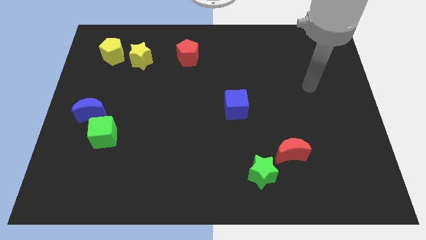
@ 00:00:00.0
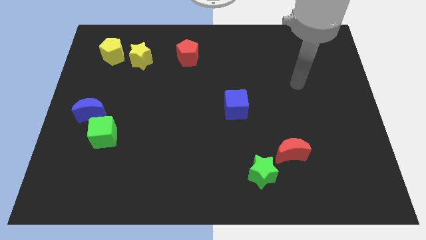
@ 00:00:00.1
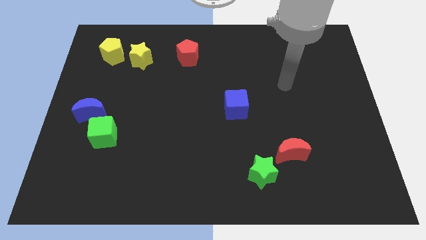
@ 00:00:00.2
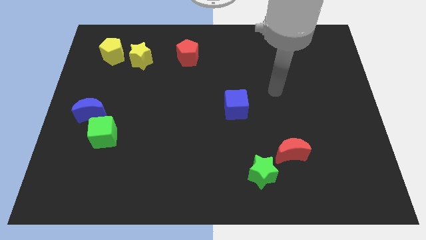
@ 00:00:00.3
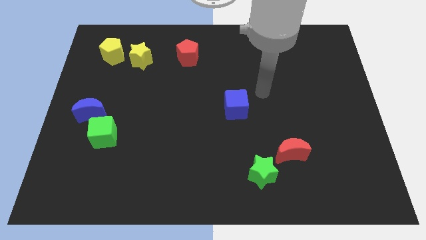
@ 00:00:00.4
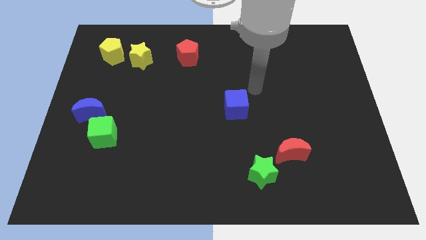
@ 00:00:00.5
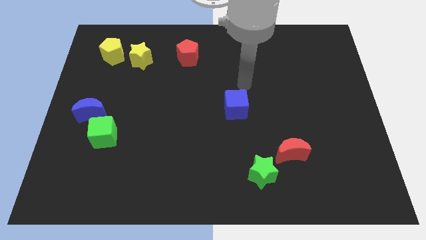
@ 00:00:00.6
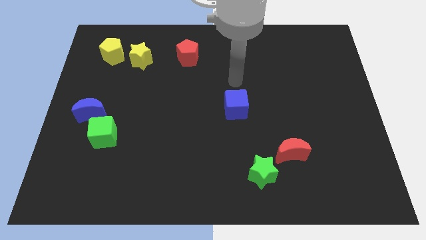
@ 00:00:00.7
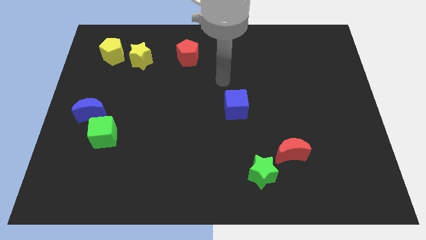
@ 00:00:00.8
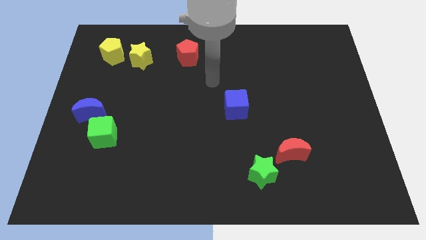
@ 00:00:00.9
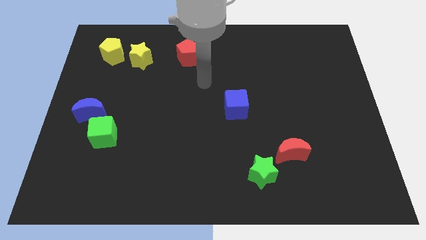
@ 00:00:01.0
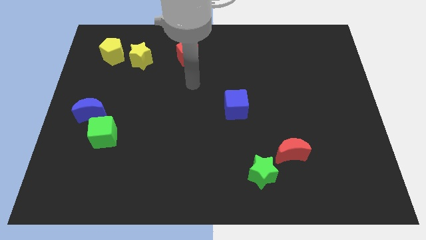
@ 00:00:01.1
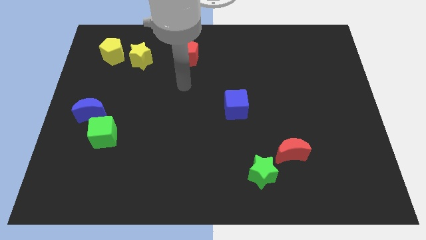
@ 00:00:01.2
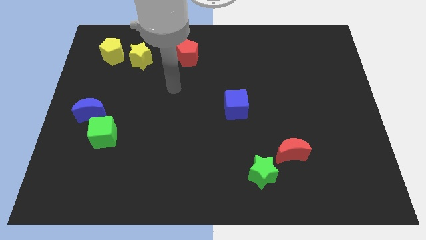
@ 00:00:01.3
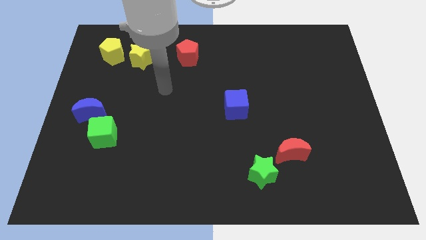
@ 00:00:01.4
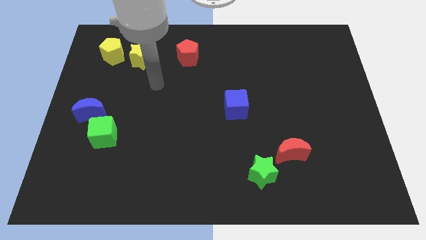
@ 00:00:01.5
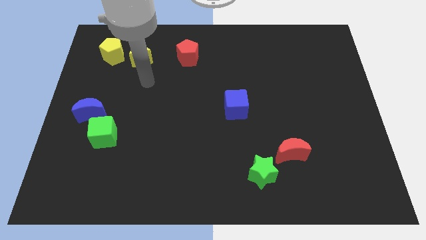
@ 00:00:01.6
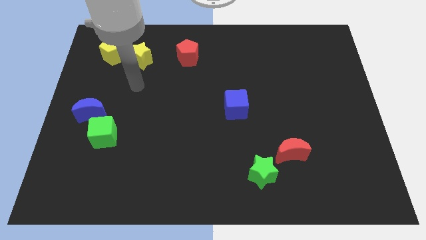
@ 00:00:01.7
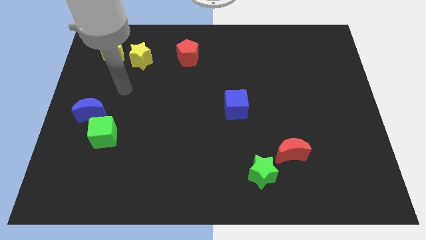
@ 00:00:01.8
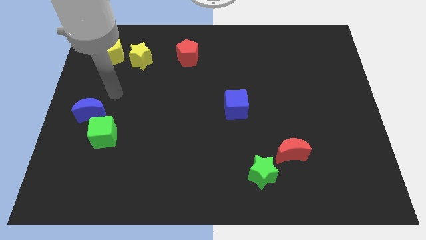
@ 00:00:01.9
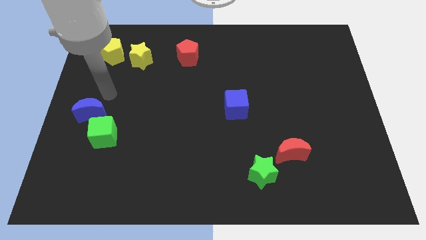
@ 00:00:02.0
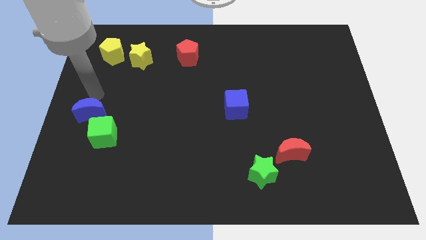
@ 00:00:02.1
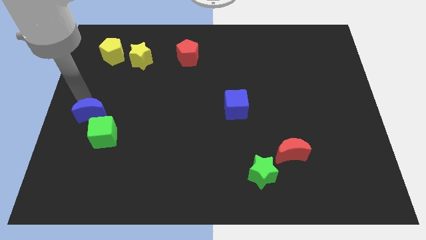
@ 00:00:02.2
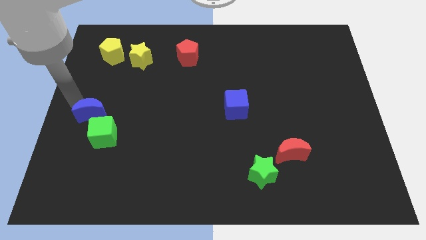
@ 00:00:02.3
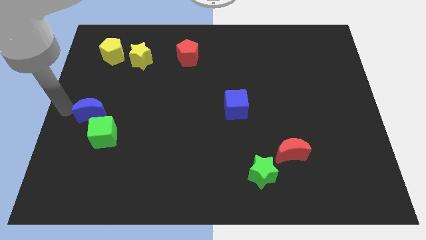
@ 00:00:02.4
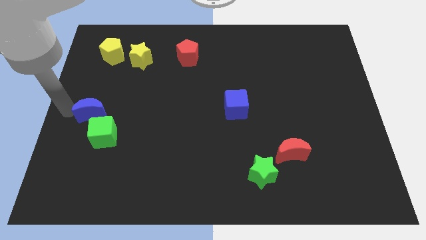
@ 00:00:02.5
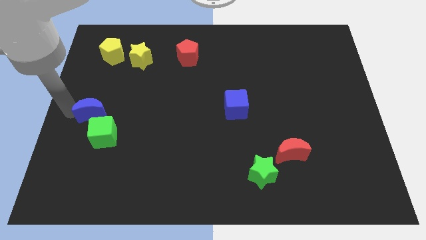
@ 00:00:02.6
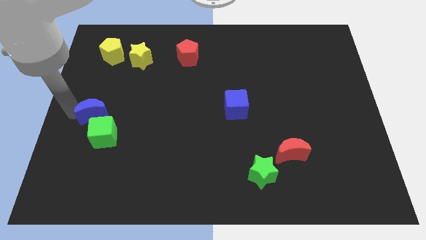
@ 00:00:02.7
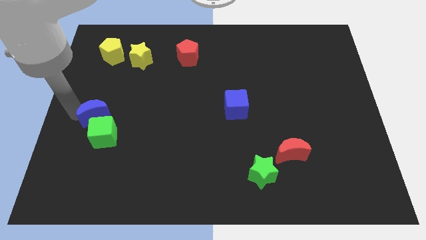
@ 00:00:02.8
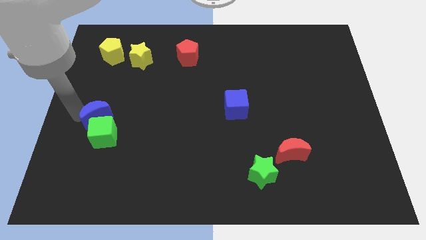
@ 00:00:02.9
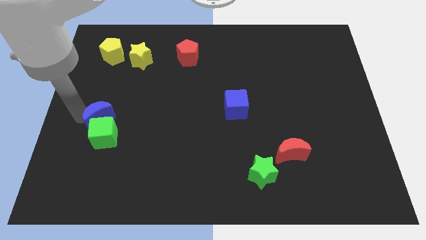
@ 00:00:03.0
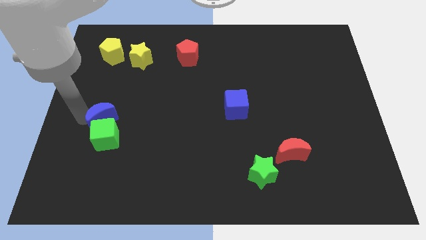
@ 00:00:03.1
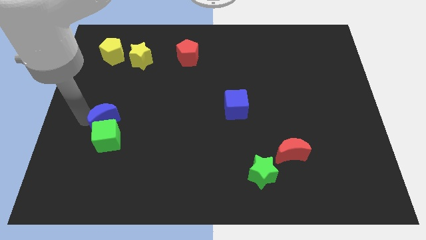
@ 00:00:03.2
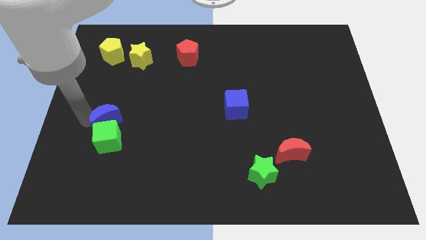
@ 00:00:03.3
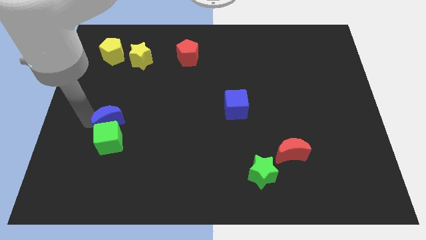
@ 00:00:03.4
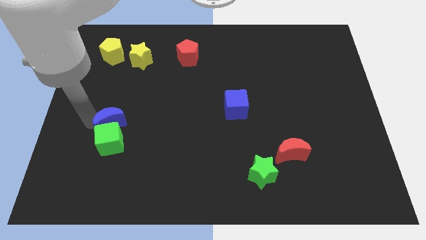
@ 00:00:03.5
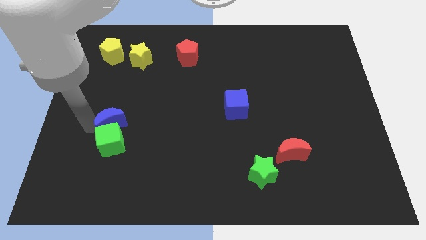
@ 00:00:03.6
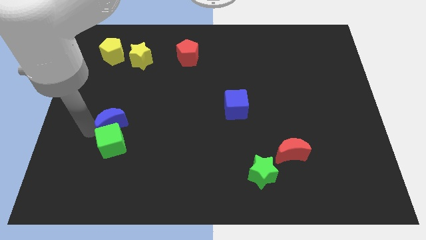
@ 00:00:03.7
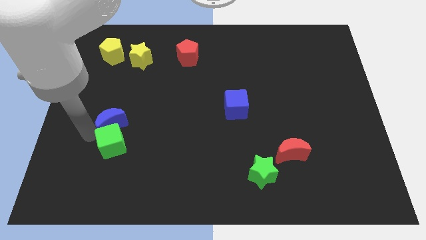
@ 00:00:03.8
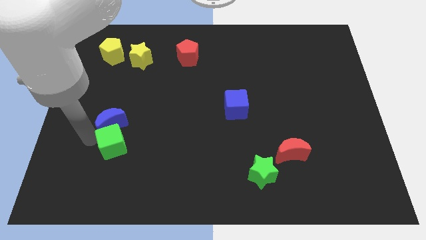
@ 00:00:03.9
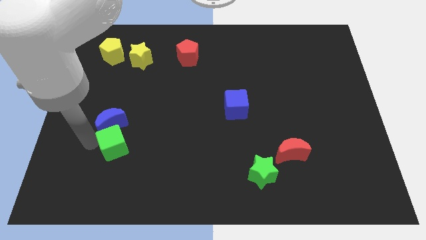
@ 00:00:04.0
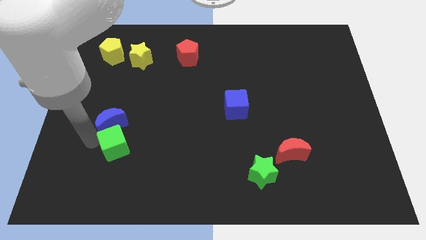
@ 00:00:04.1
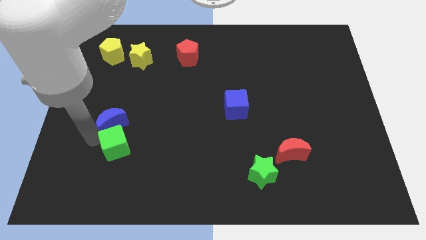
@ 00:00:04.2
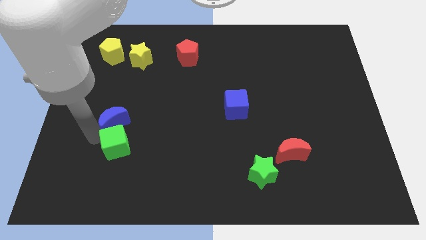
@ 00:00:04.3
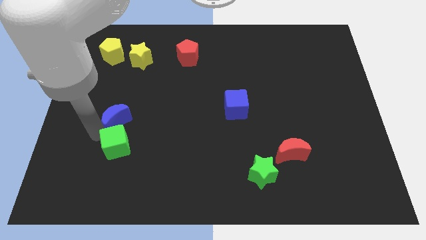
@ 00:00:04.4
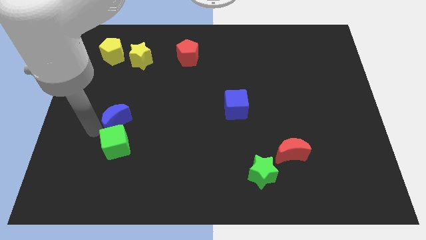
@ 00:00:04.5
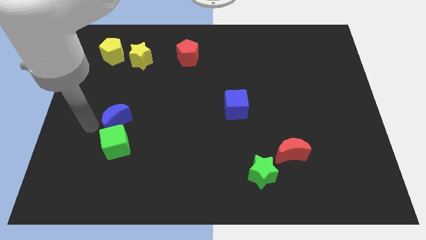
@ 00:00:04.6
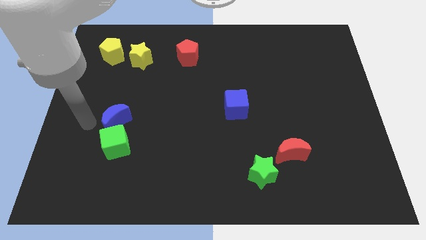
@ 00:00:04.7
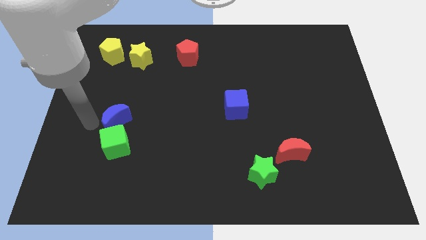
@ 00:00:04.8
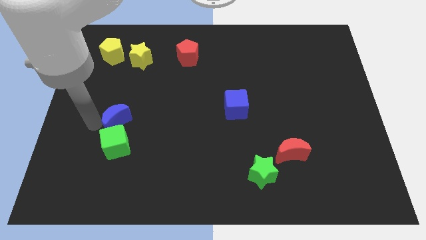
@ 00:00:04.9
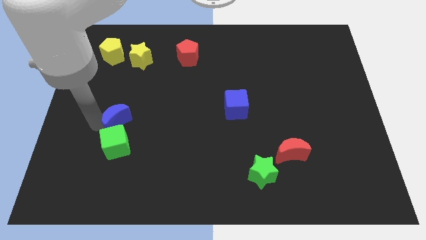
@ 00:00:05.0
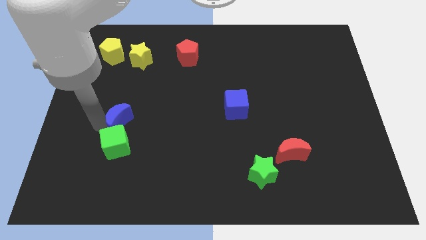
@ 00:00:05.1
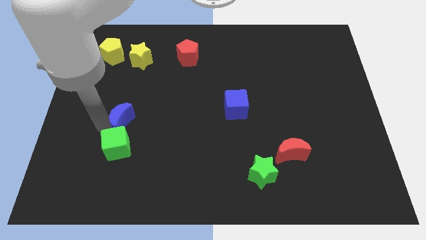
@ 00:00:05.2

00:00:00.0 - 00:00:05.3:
slide the blue moon a little bit to the right

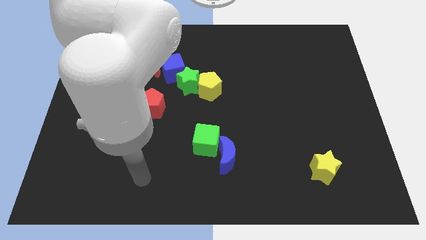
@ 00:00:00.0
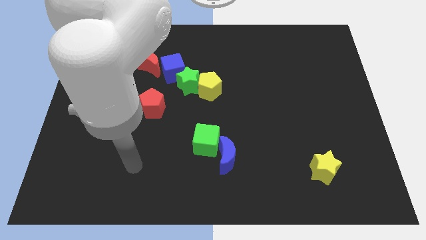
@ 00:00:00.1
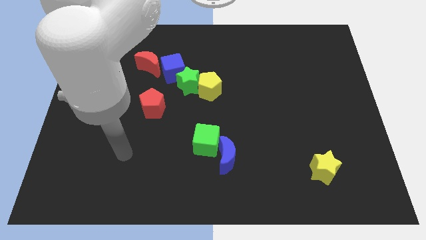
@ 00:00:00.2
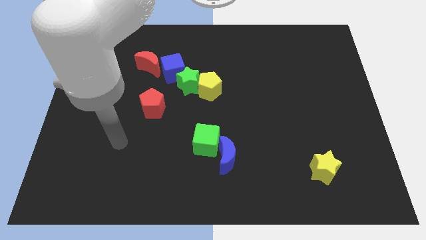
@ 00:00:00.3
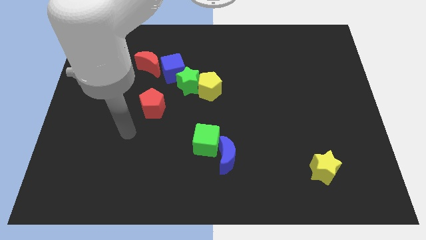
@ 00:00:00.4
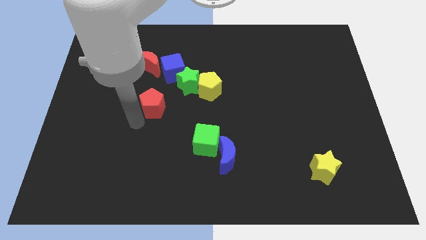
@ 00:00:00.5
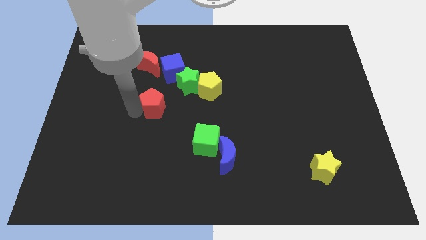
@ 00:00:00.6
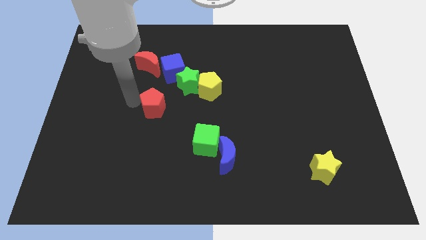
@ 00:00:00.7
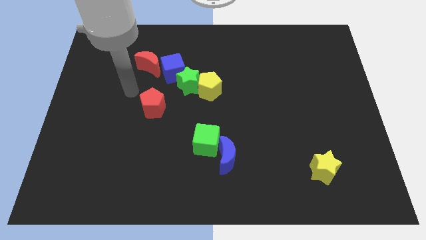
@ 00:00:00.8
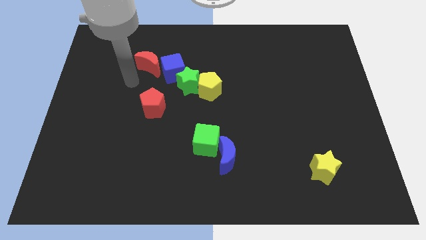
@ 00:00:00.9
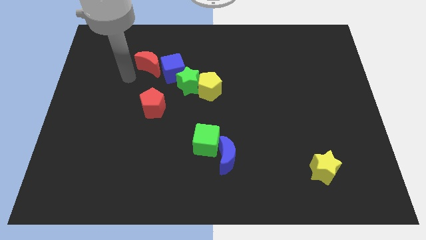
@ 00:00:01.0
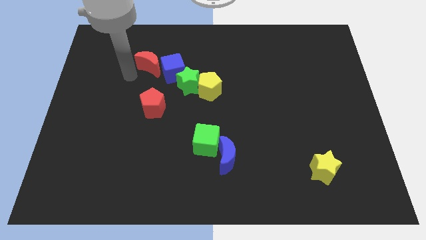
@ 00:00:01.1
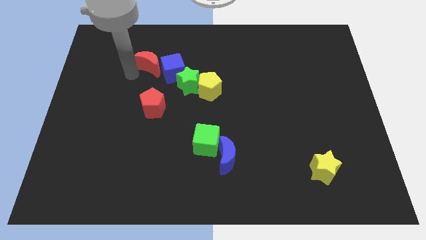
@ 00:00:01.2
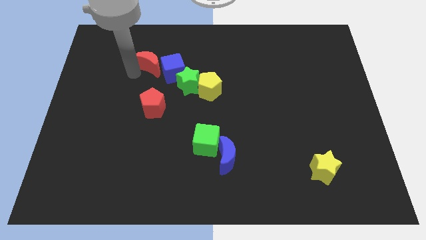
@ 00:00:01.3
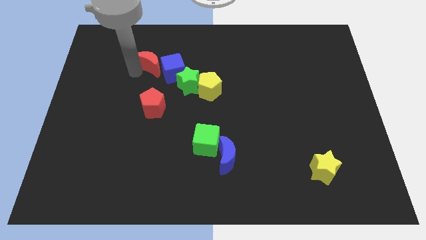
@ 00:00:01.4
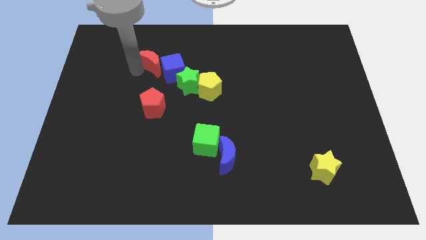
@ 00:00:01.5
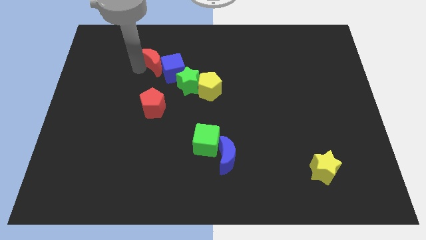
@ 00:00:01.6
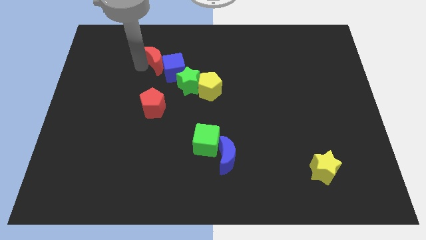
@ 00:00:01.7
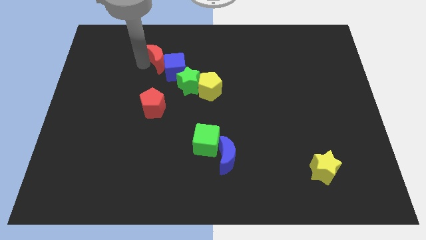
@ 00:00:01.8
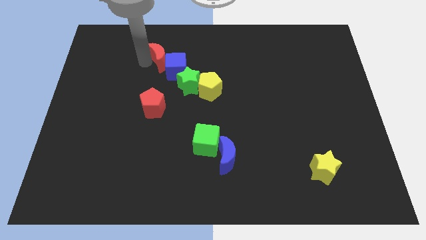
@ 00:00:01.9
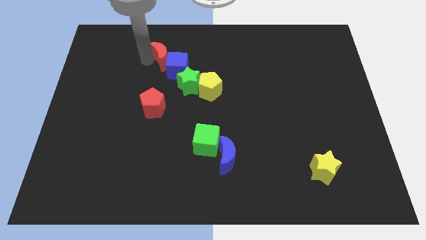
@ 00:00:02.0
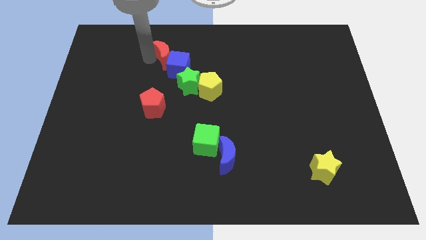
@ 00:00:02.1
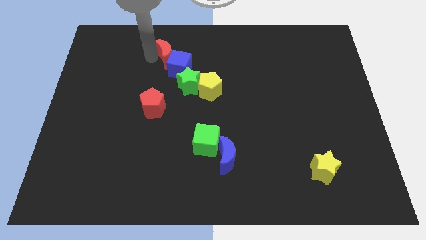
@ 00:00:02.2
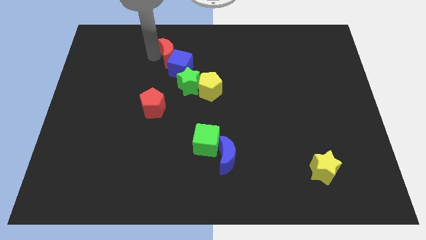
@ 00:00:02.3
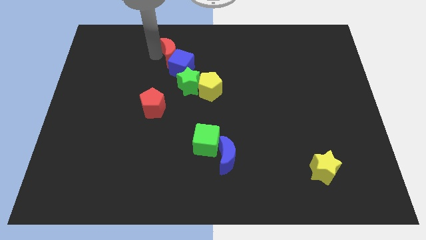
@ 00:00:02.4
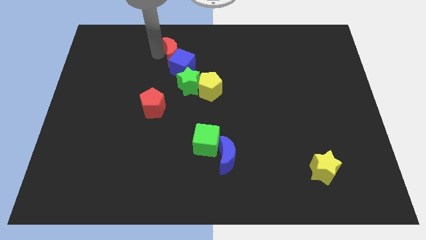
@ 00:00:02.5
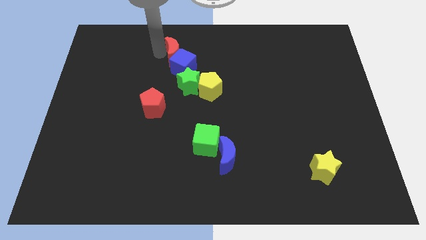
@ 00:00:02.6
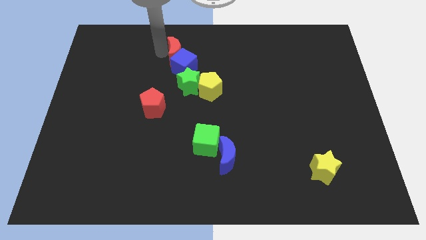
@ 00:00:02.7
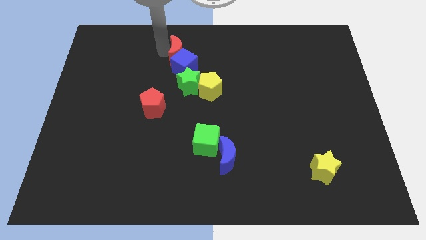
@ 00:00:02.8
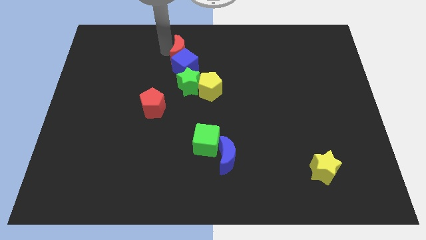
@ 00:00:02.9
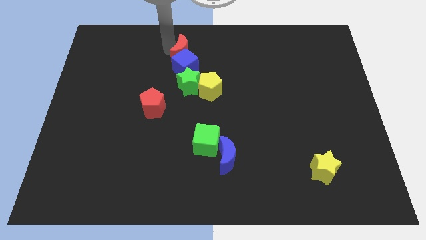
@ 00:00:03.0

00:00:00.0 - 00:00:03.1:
slide the red moon a bit to the right
